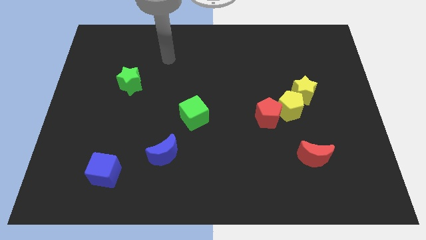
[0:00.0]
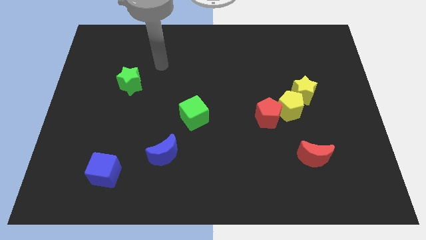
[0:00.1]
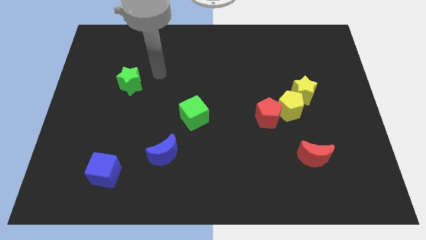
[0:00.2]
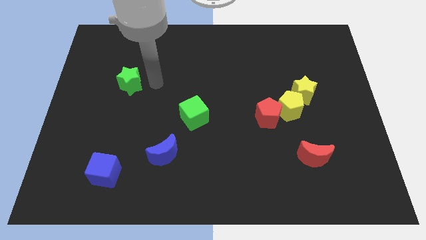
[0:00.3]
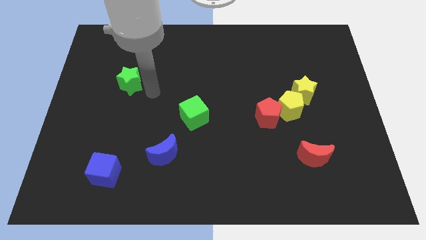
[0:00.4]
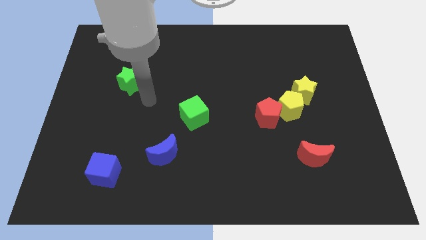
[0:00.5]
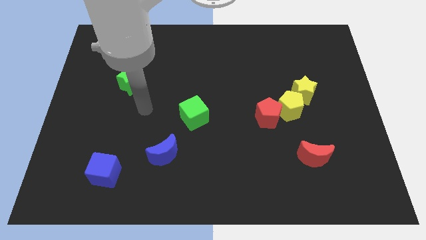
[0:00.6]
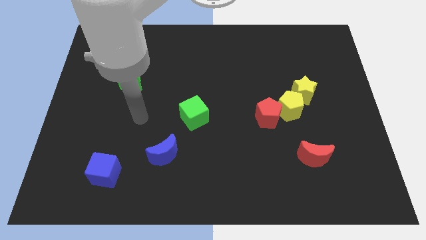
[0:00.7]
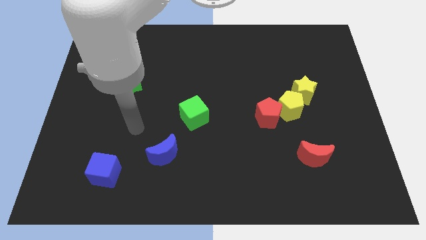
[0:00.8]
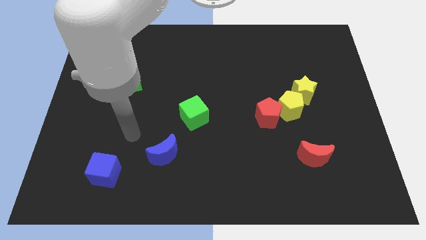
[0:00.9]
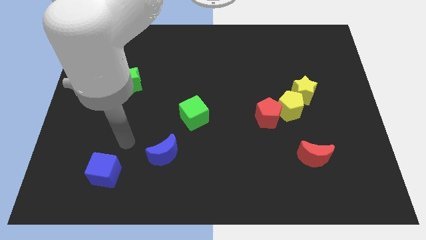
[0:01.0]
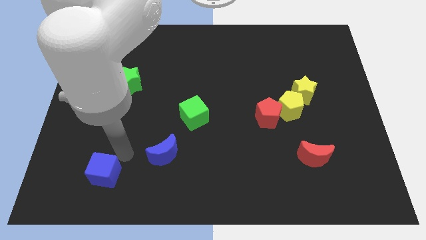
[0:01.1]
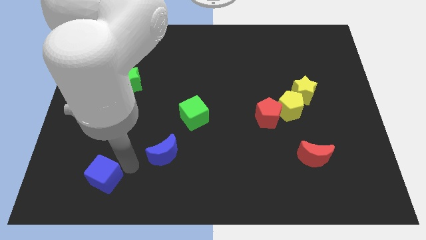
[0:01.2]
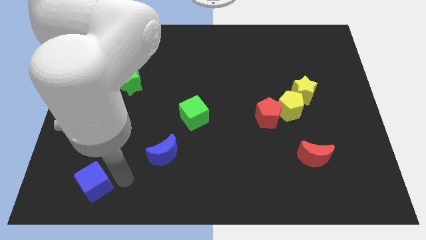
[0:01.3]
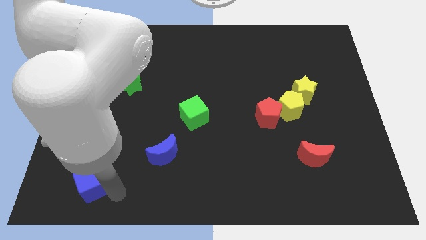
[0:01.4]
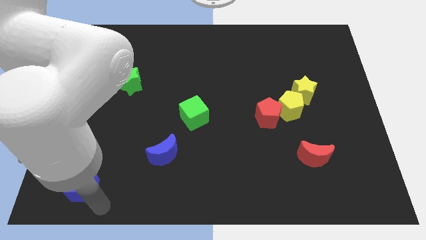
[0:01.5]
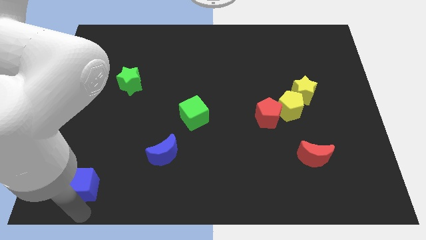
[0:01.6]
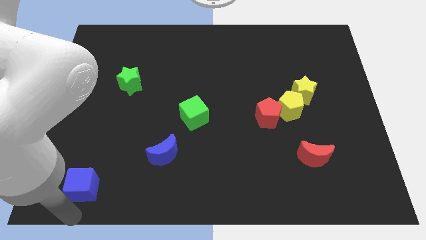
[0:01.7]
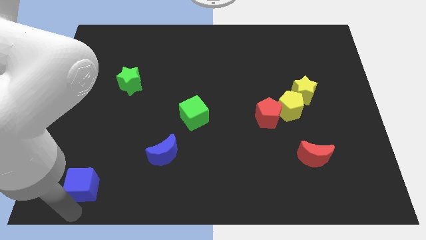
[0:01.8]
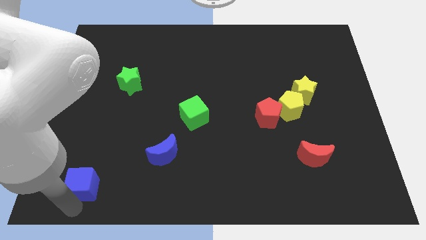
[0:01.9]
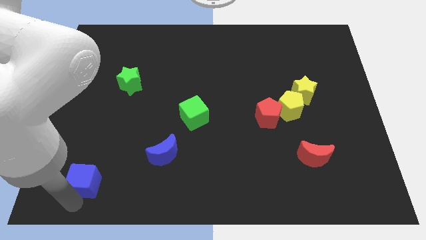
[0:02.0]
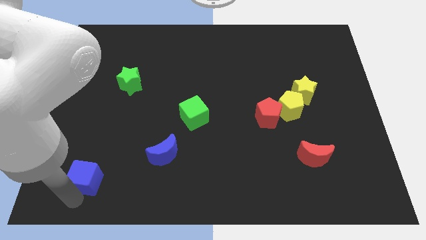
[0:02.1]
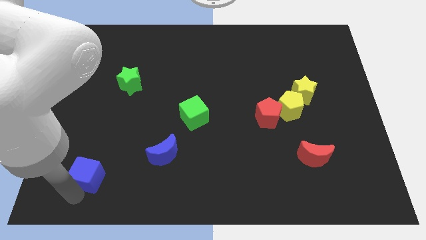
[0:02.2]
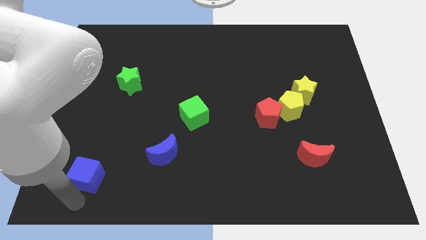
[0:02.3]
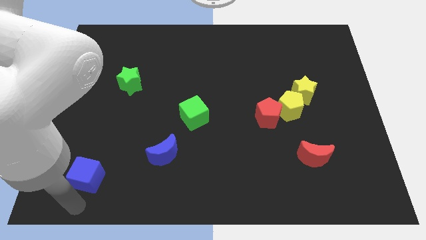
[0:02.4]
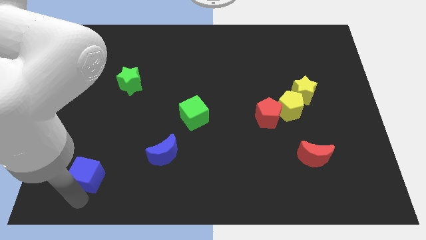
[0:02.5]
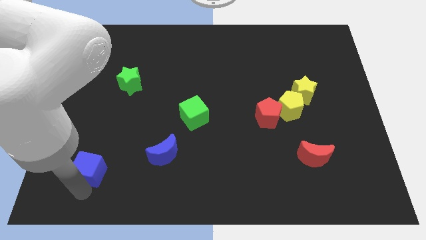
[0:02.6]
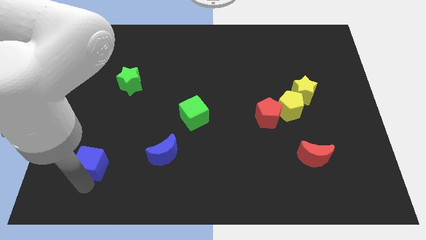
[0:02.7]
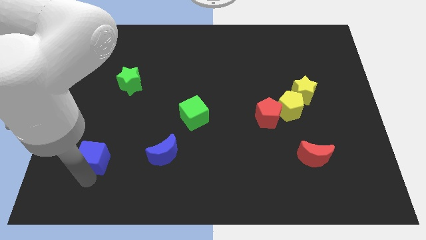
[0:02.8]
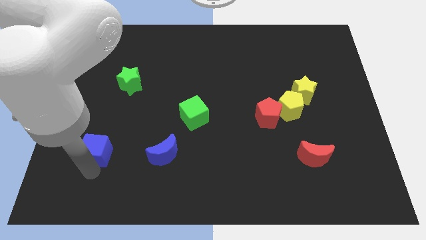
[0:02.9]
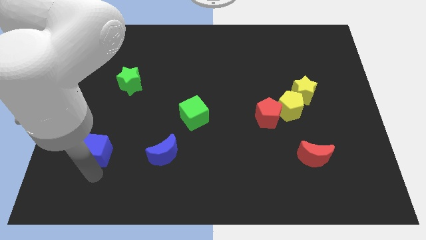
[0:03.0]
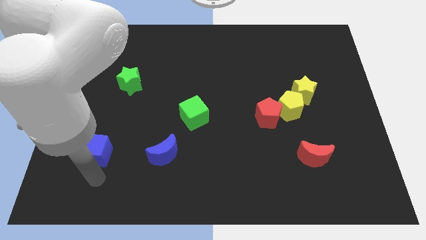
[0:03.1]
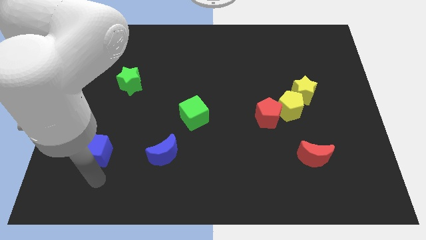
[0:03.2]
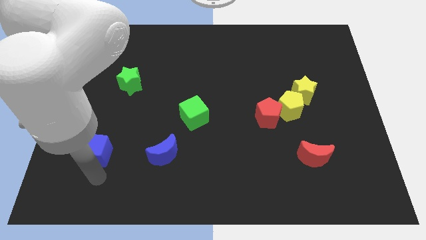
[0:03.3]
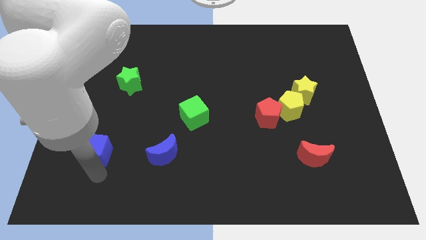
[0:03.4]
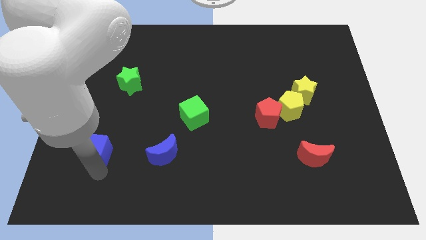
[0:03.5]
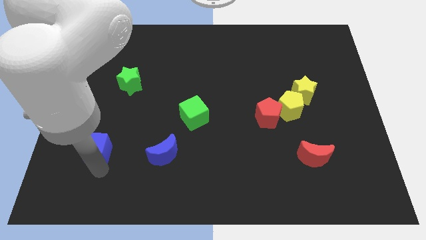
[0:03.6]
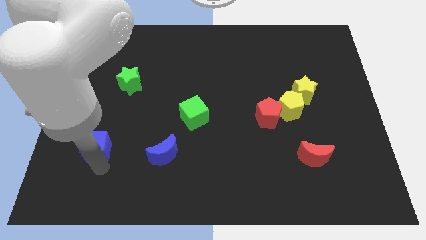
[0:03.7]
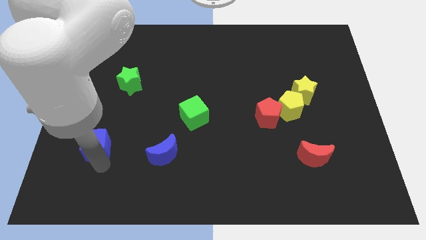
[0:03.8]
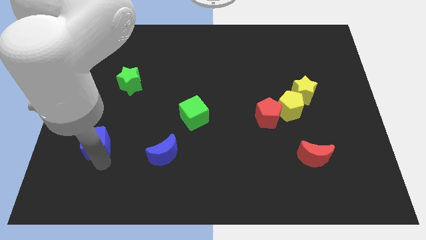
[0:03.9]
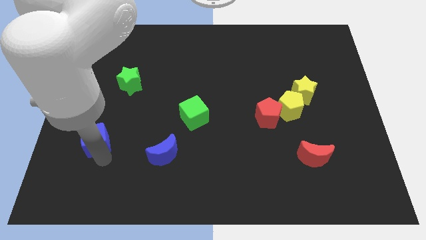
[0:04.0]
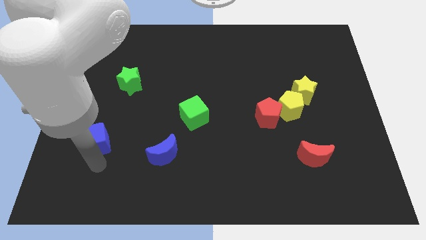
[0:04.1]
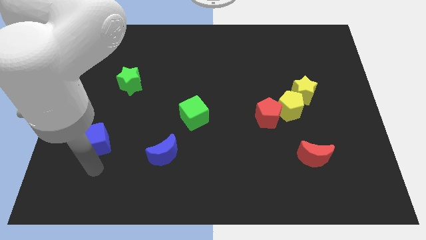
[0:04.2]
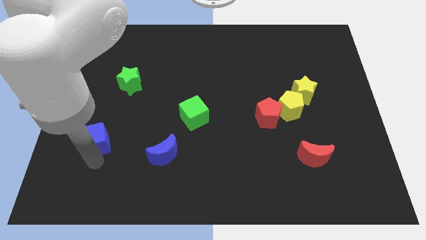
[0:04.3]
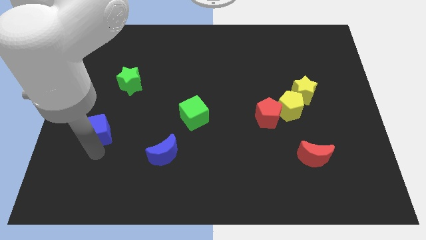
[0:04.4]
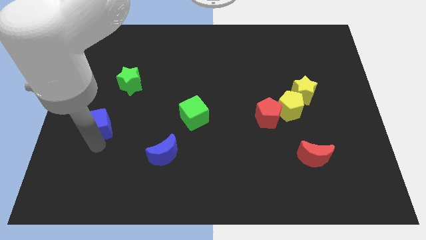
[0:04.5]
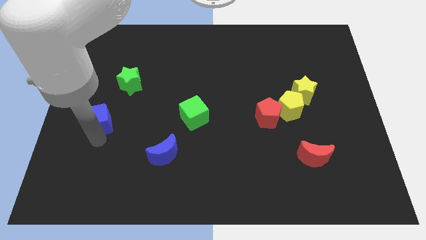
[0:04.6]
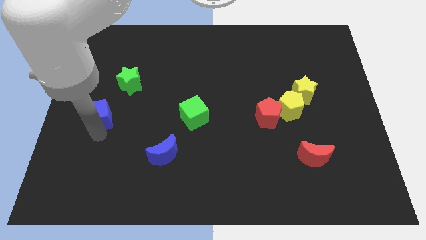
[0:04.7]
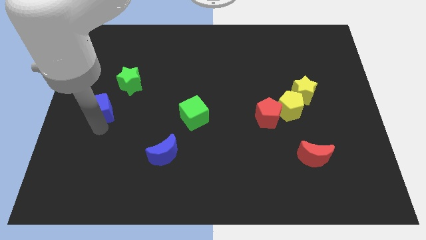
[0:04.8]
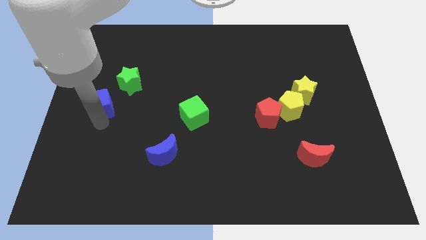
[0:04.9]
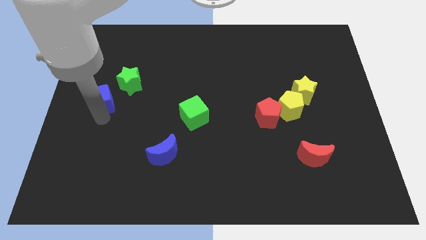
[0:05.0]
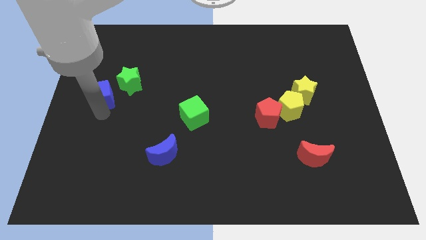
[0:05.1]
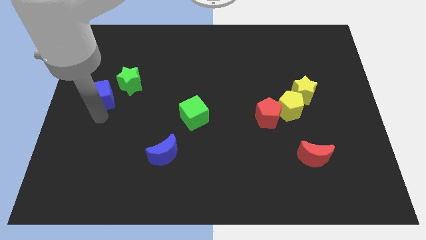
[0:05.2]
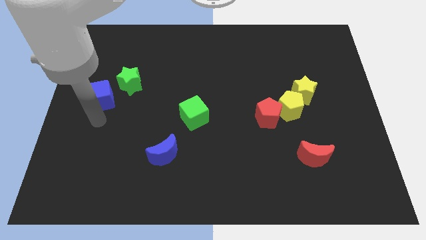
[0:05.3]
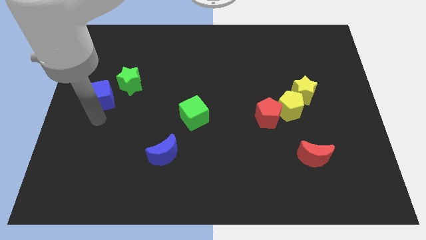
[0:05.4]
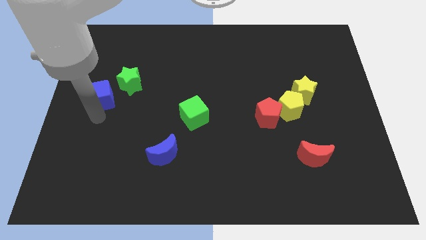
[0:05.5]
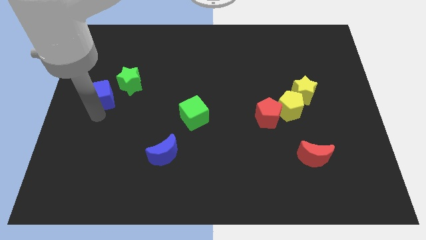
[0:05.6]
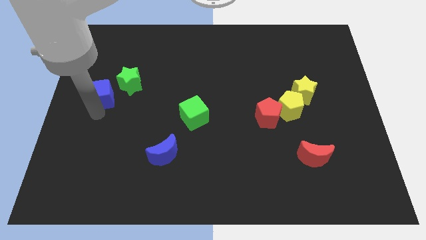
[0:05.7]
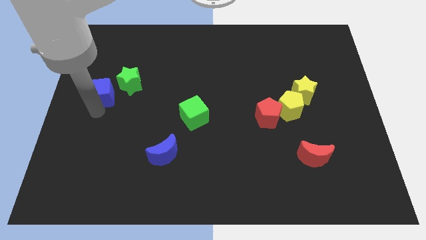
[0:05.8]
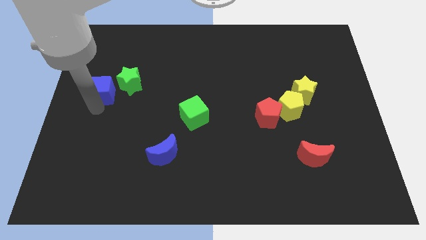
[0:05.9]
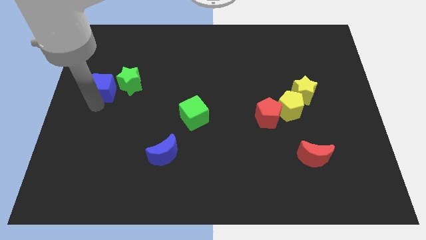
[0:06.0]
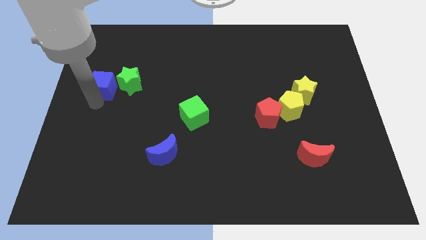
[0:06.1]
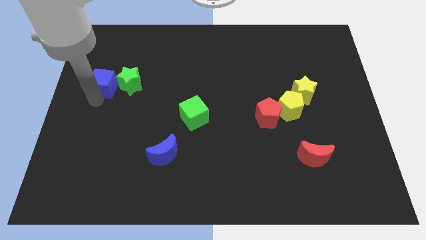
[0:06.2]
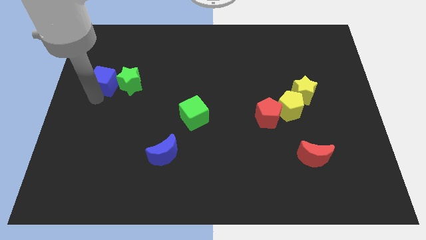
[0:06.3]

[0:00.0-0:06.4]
put the blue cube to the top left side of the green star

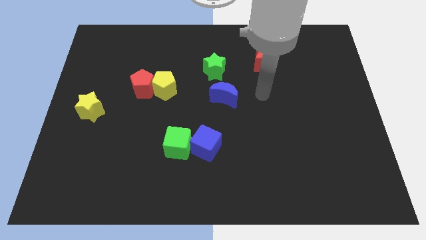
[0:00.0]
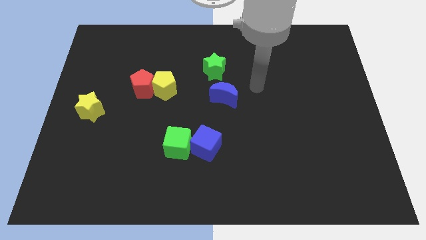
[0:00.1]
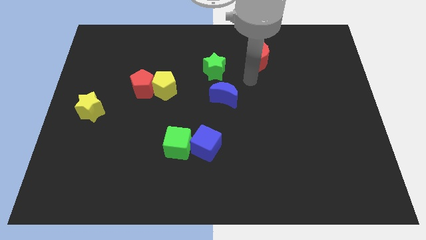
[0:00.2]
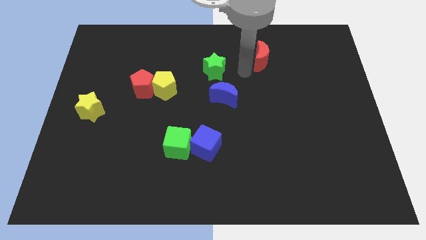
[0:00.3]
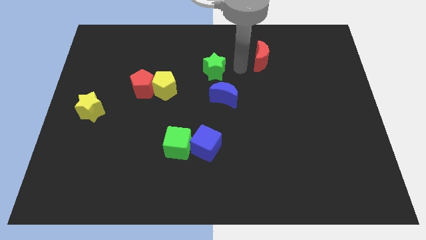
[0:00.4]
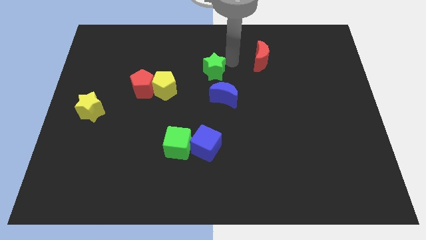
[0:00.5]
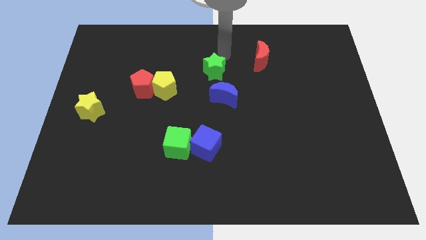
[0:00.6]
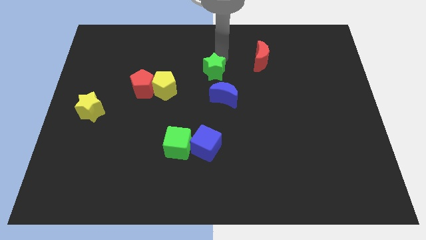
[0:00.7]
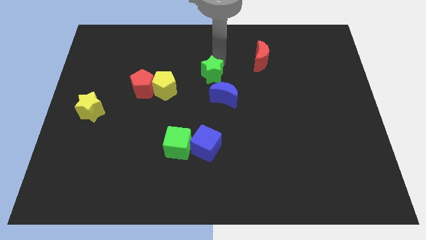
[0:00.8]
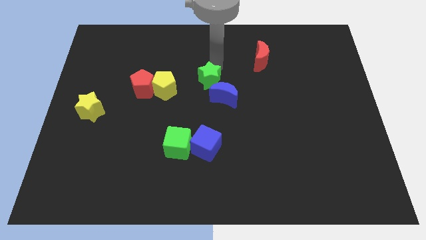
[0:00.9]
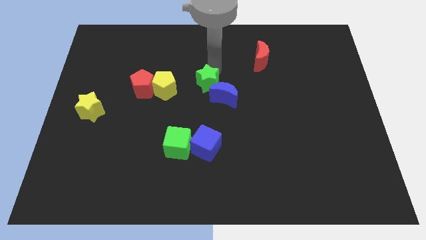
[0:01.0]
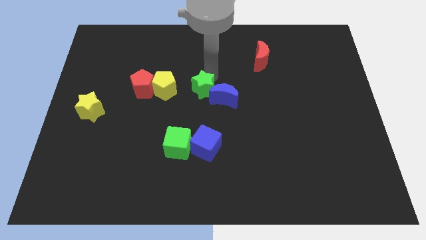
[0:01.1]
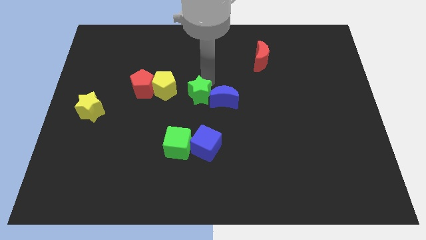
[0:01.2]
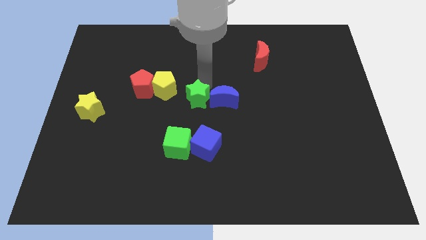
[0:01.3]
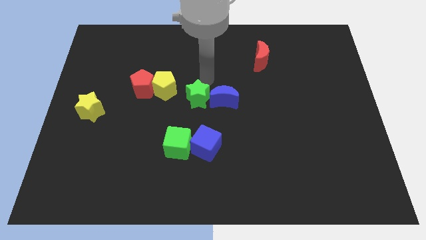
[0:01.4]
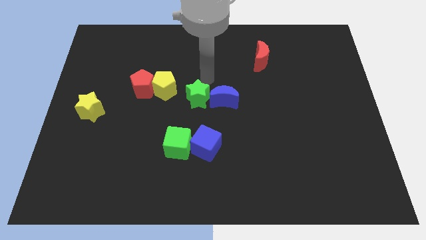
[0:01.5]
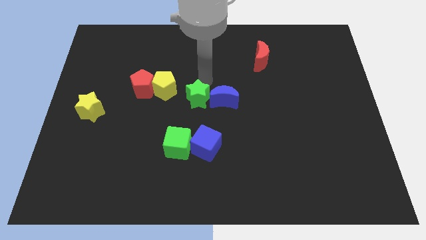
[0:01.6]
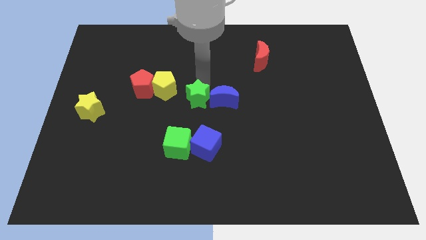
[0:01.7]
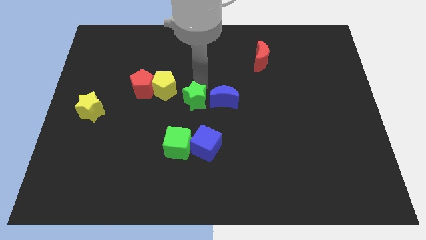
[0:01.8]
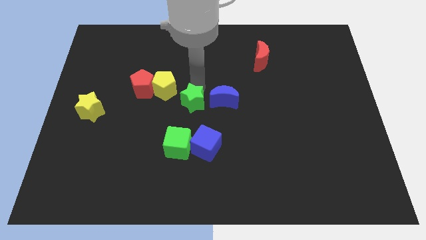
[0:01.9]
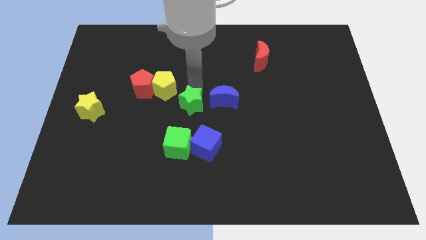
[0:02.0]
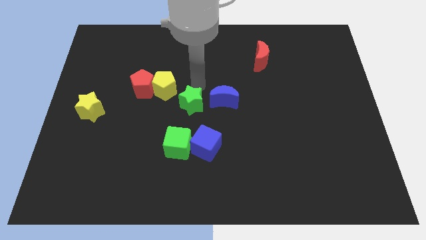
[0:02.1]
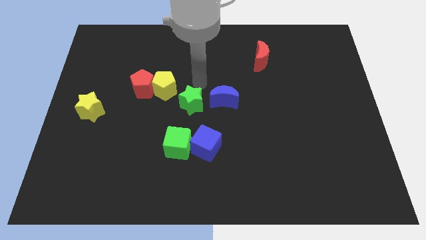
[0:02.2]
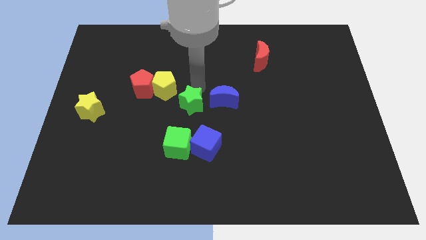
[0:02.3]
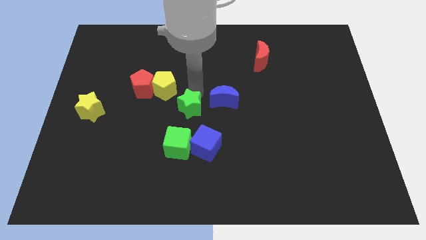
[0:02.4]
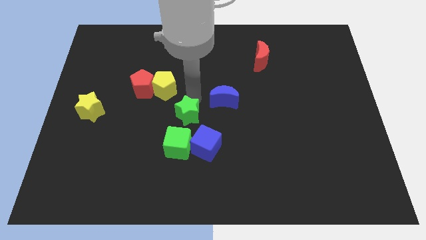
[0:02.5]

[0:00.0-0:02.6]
put the green star diagonally up and to the left of the blue cube
